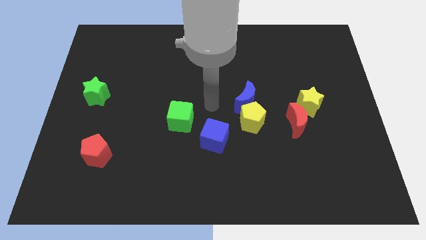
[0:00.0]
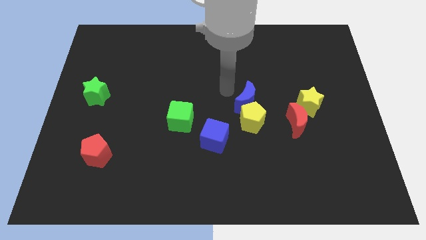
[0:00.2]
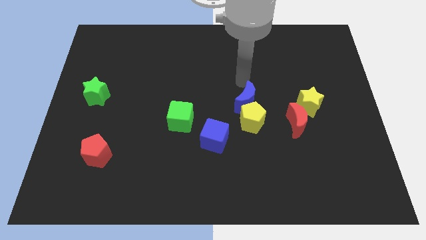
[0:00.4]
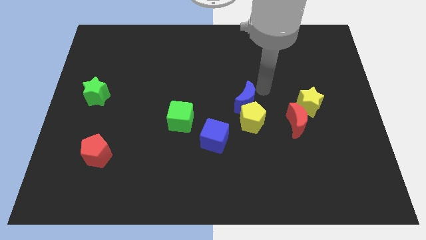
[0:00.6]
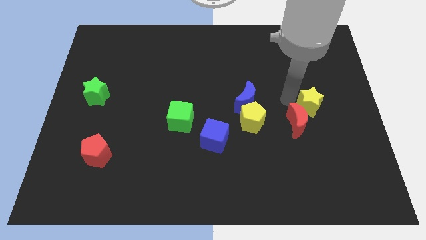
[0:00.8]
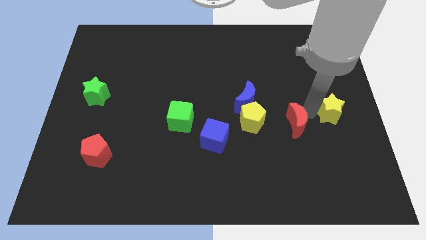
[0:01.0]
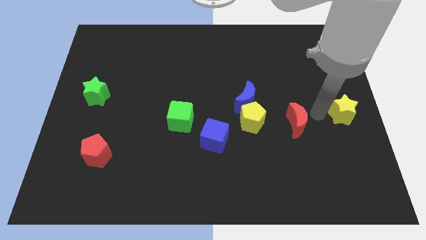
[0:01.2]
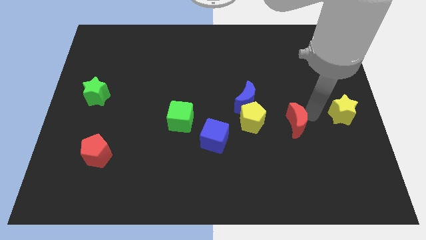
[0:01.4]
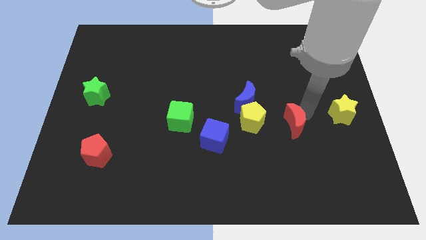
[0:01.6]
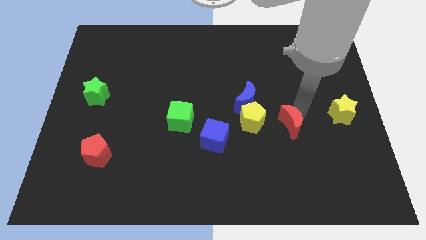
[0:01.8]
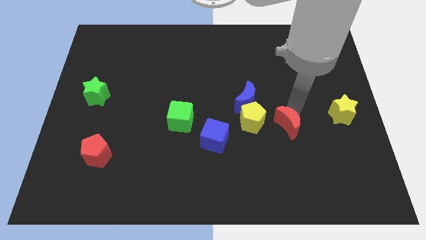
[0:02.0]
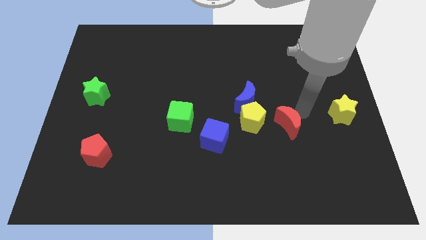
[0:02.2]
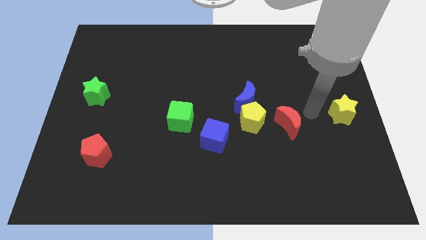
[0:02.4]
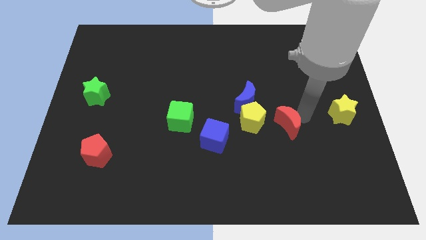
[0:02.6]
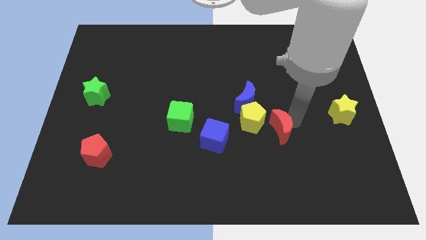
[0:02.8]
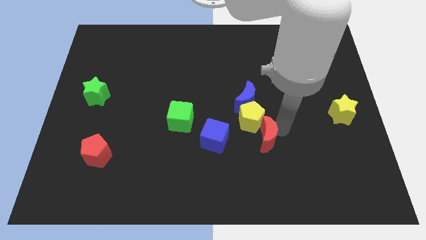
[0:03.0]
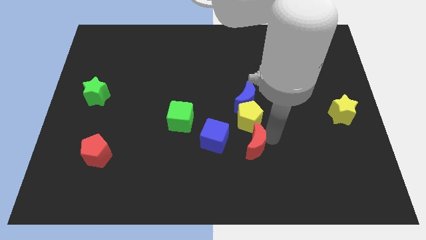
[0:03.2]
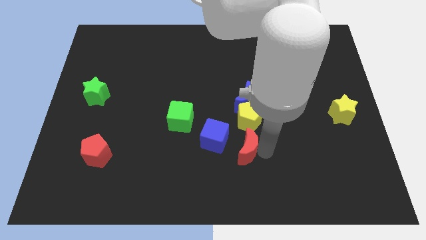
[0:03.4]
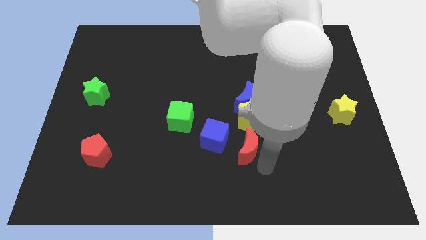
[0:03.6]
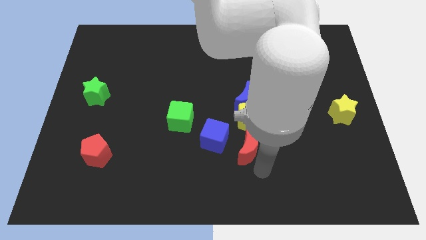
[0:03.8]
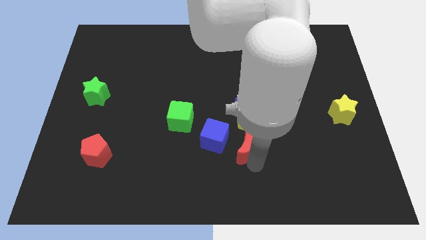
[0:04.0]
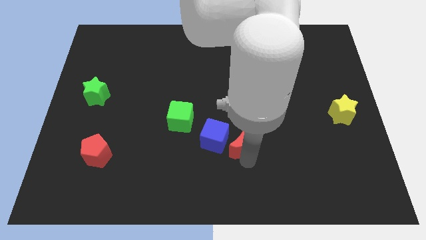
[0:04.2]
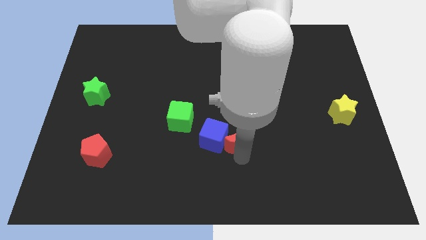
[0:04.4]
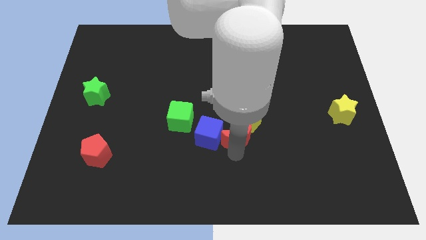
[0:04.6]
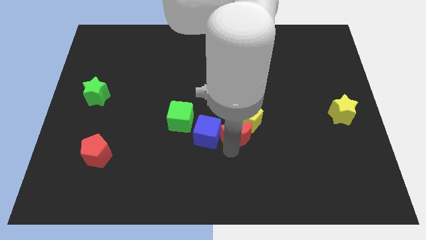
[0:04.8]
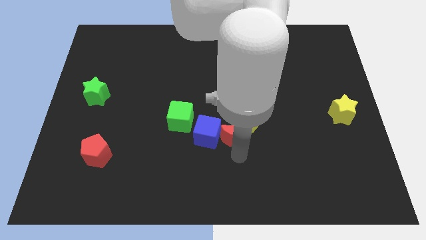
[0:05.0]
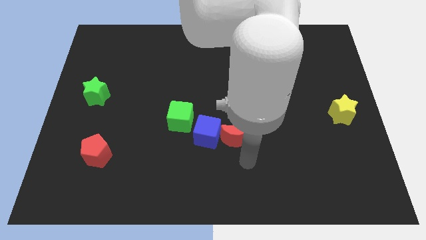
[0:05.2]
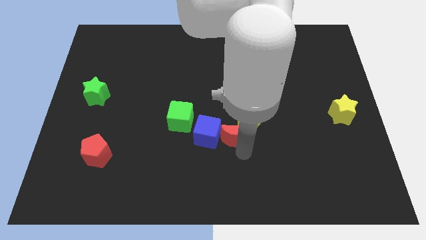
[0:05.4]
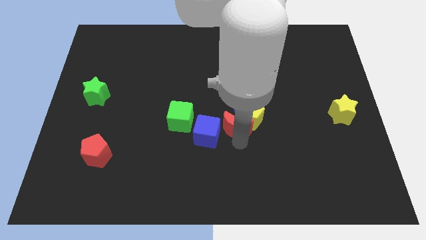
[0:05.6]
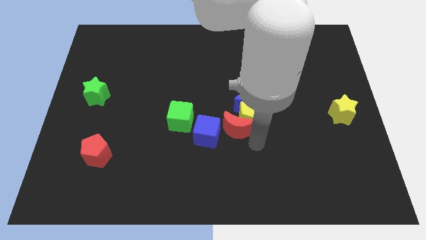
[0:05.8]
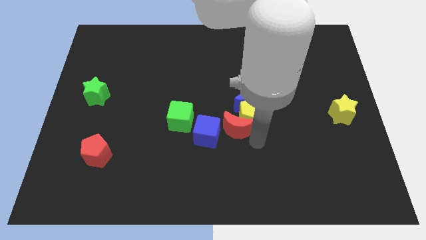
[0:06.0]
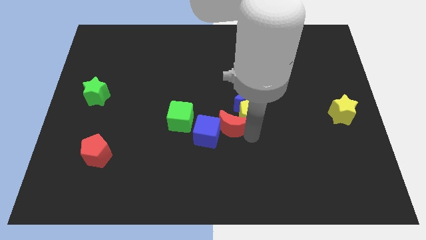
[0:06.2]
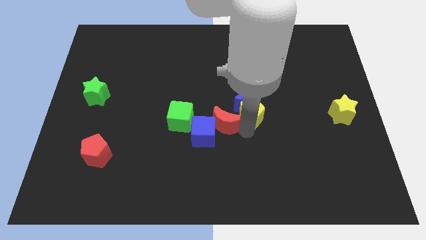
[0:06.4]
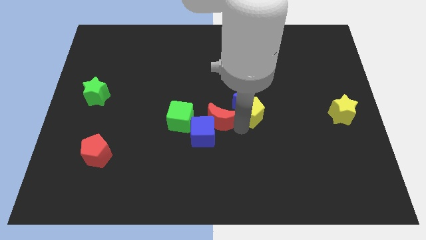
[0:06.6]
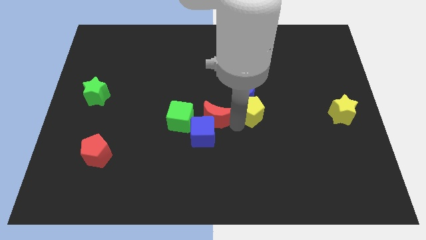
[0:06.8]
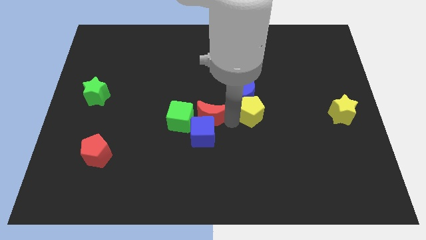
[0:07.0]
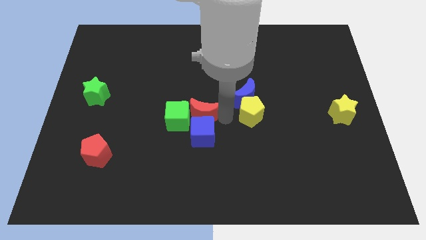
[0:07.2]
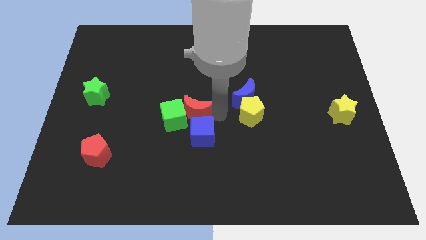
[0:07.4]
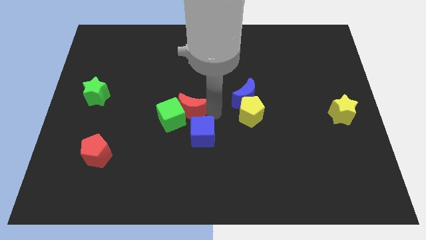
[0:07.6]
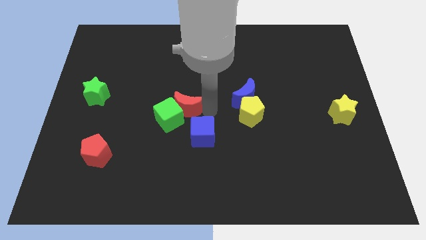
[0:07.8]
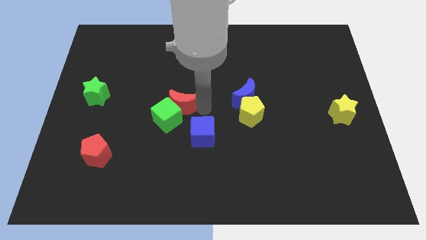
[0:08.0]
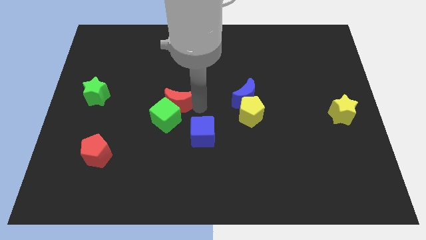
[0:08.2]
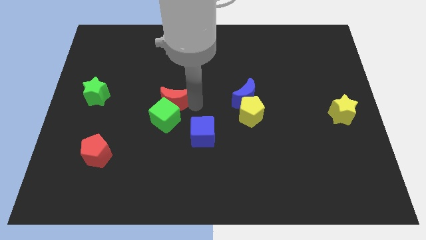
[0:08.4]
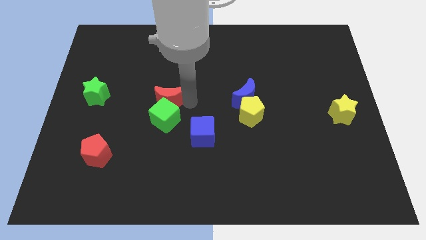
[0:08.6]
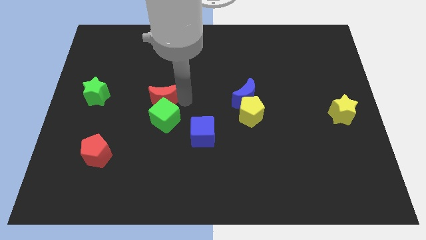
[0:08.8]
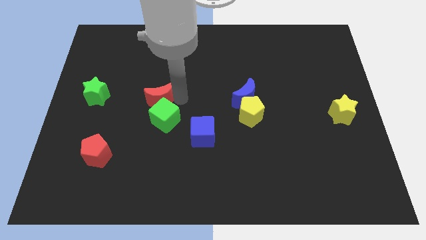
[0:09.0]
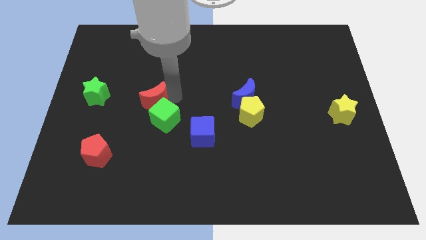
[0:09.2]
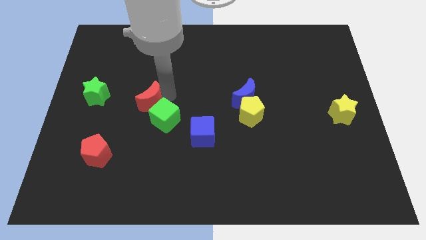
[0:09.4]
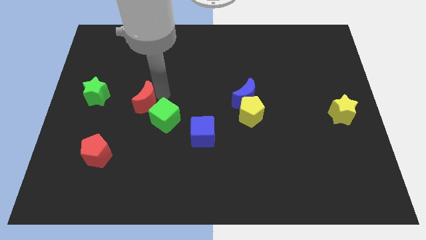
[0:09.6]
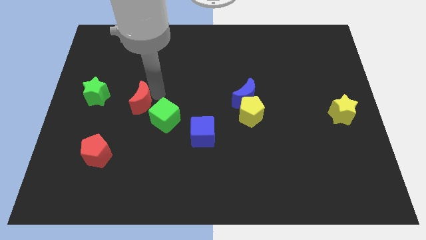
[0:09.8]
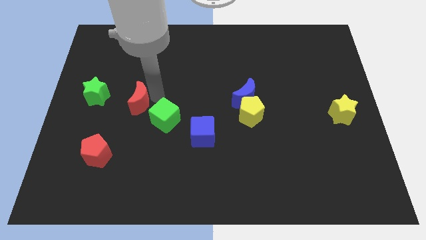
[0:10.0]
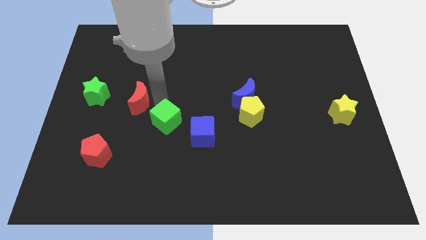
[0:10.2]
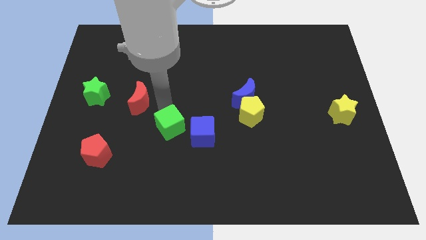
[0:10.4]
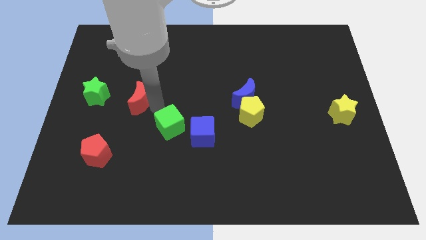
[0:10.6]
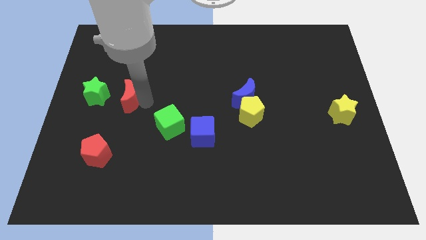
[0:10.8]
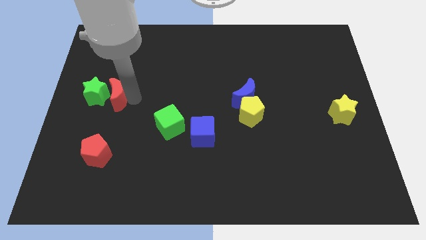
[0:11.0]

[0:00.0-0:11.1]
put the red moon next to the green star

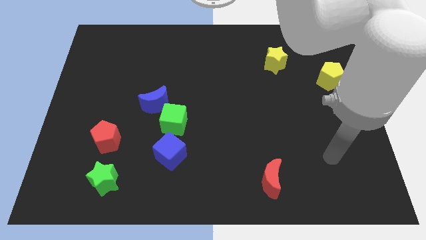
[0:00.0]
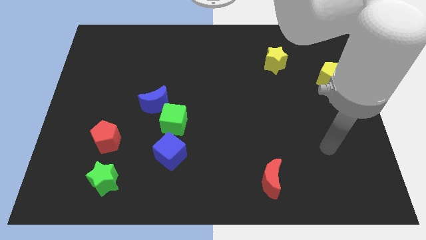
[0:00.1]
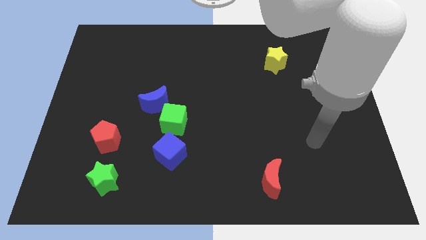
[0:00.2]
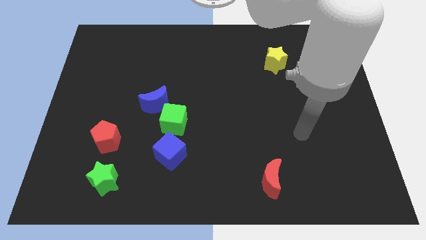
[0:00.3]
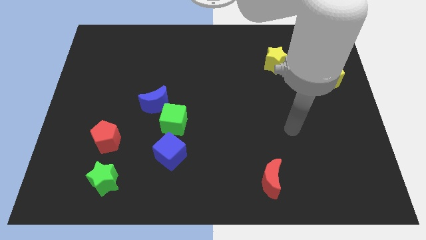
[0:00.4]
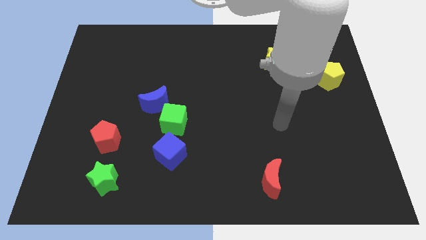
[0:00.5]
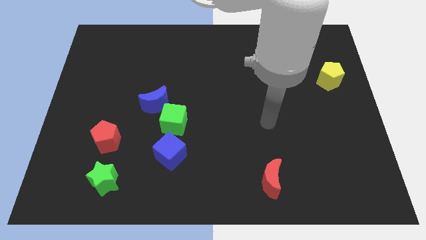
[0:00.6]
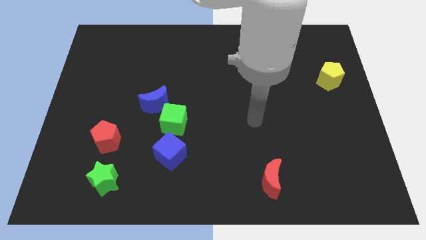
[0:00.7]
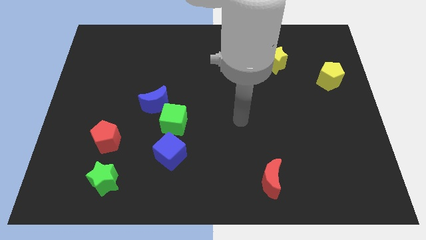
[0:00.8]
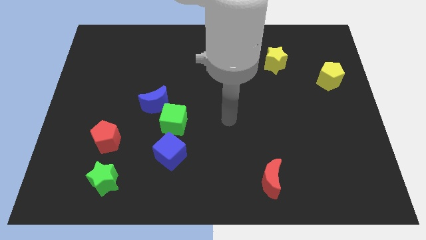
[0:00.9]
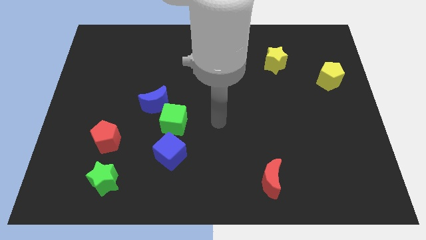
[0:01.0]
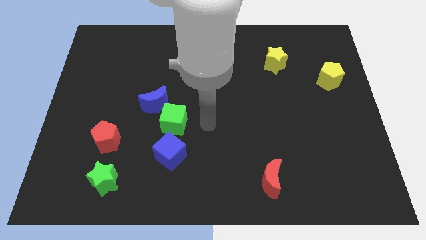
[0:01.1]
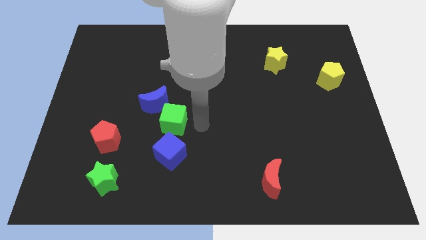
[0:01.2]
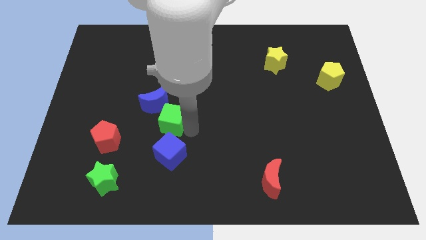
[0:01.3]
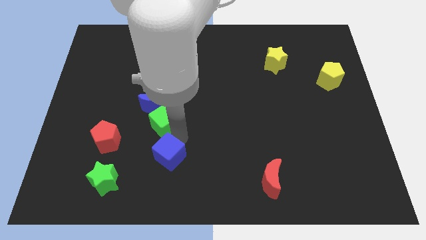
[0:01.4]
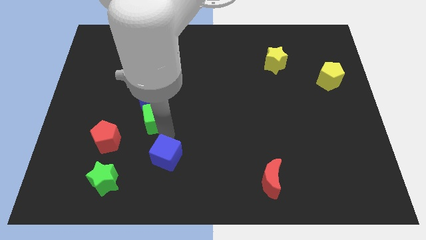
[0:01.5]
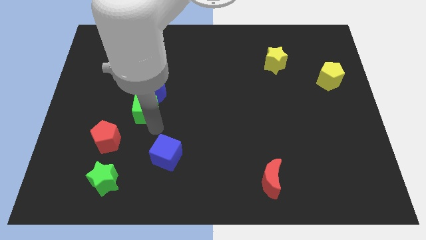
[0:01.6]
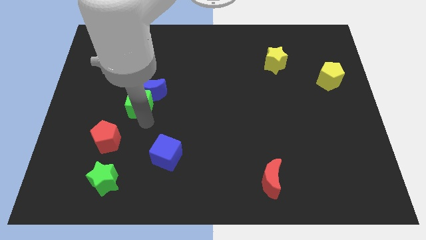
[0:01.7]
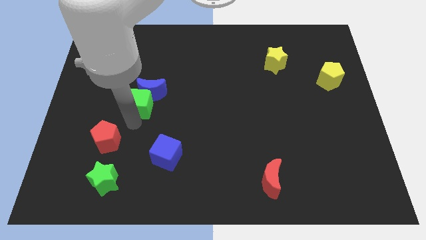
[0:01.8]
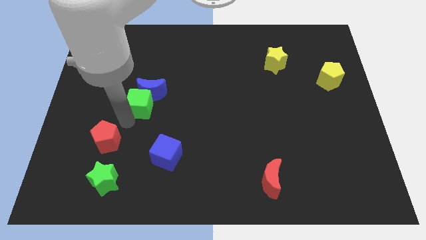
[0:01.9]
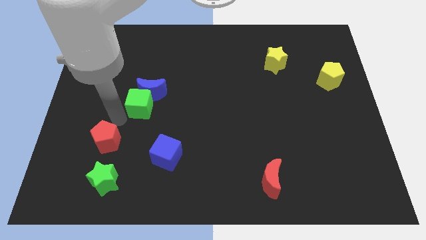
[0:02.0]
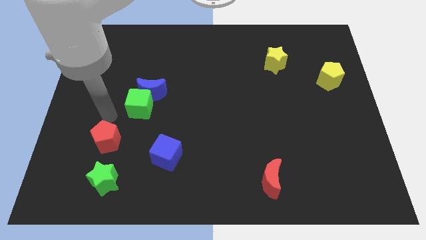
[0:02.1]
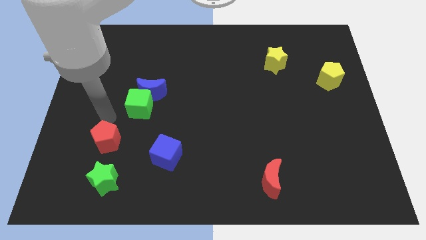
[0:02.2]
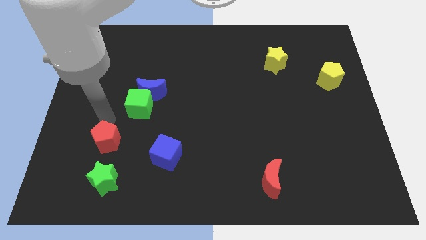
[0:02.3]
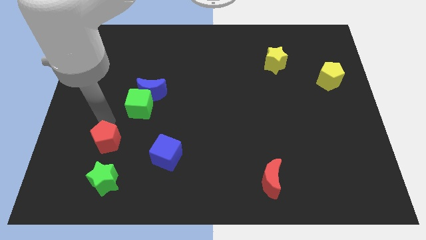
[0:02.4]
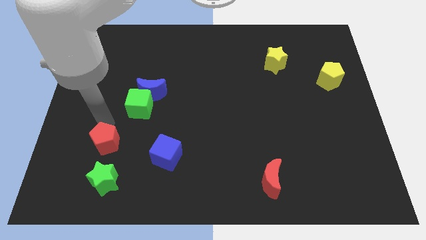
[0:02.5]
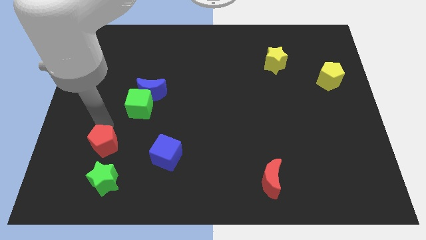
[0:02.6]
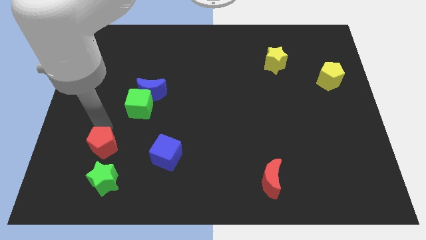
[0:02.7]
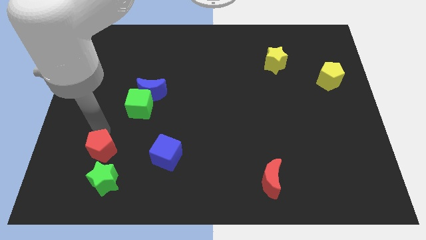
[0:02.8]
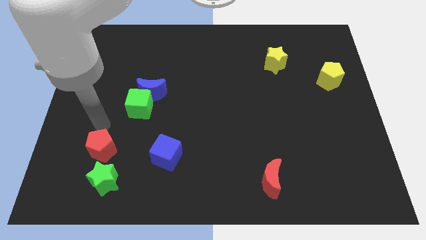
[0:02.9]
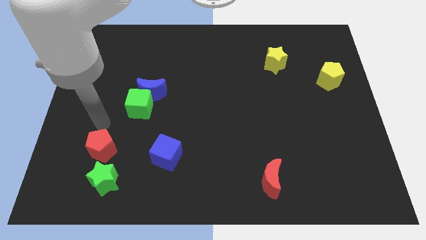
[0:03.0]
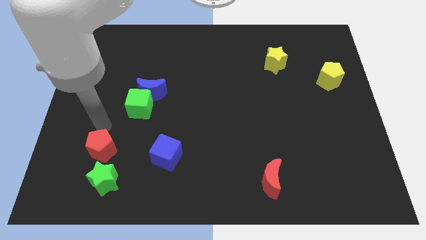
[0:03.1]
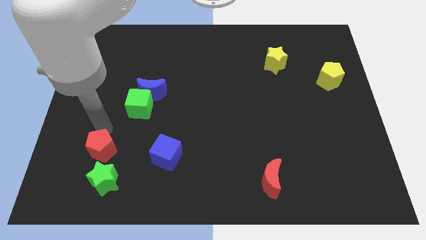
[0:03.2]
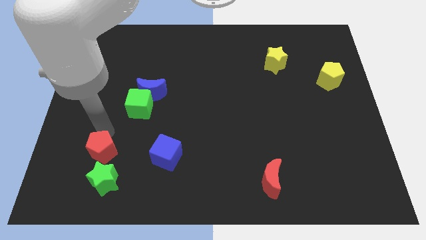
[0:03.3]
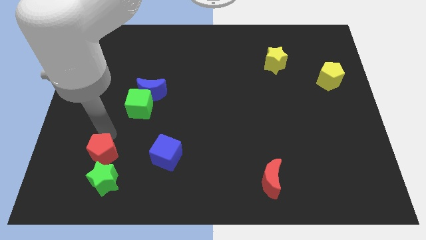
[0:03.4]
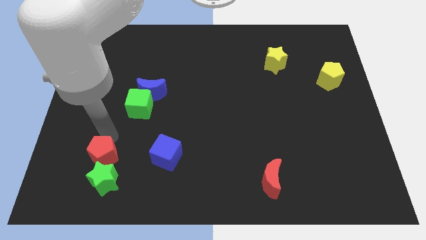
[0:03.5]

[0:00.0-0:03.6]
put the red pentagon next to the green star
